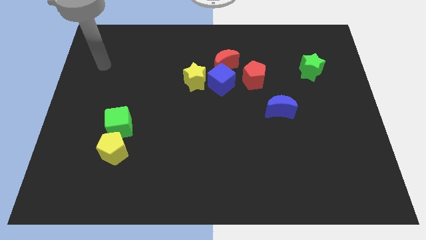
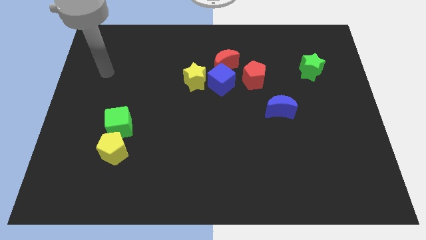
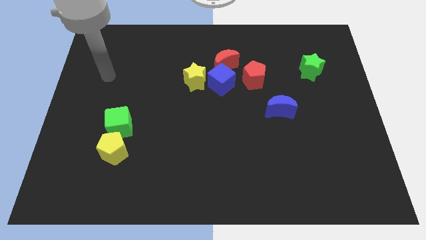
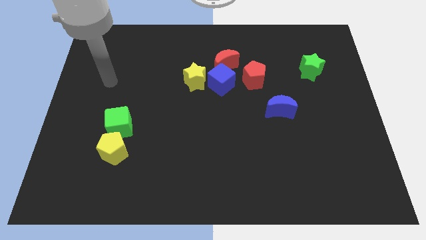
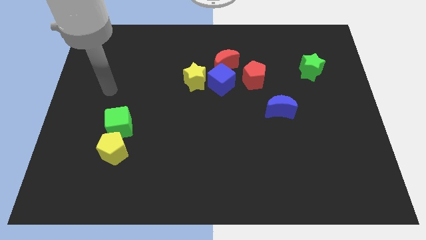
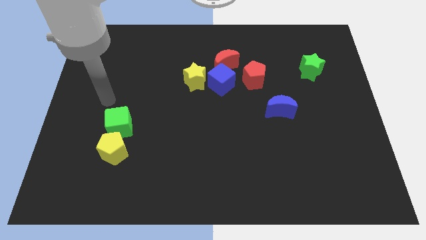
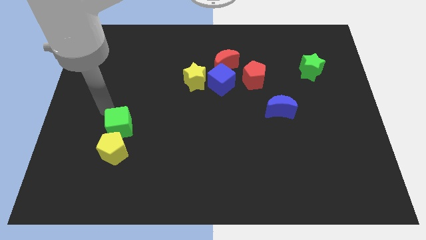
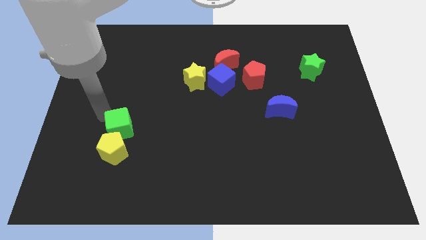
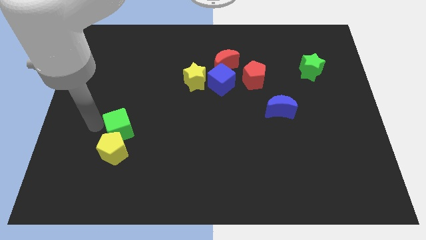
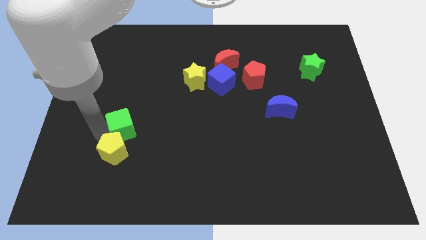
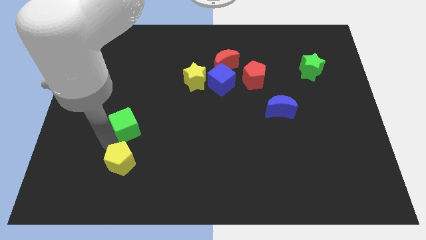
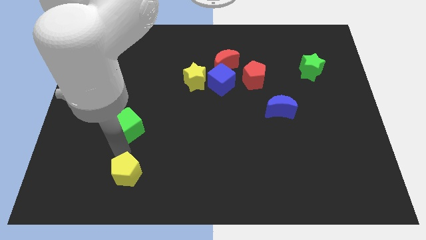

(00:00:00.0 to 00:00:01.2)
pull the green cube apart from the yellow pentagon

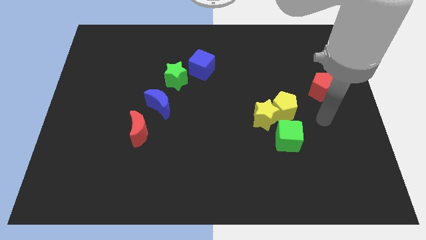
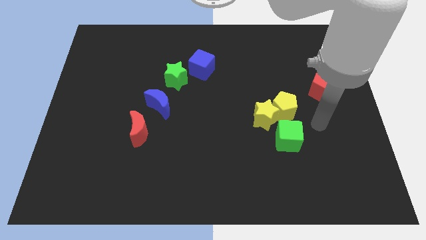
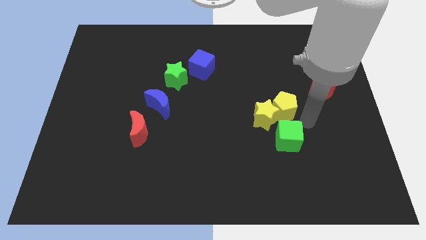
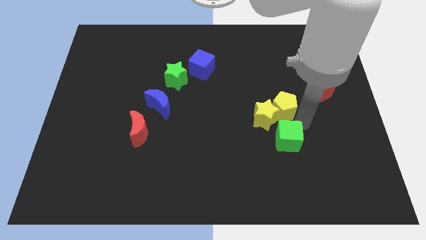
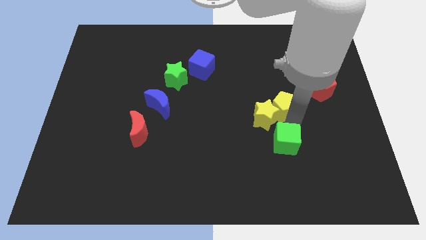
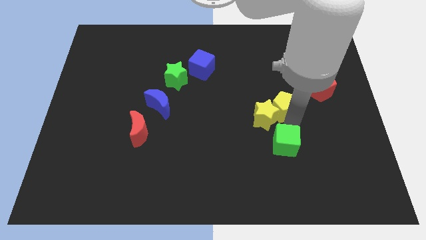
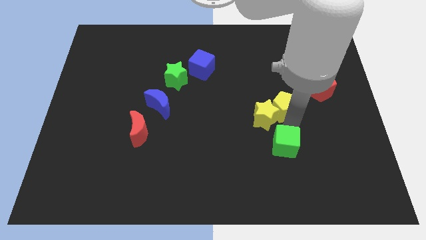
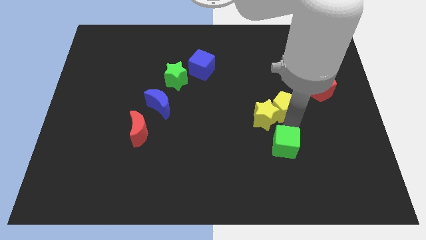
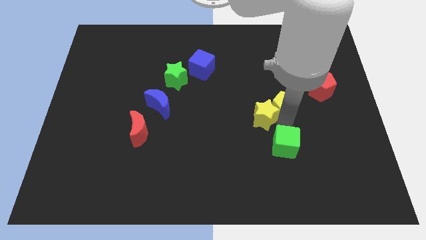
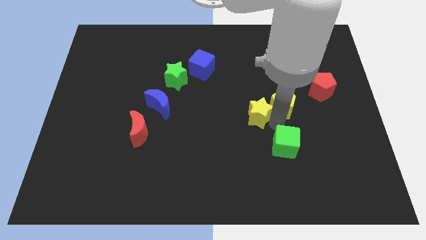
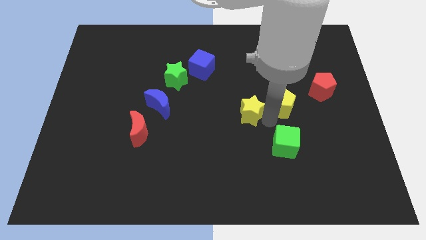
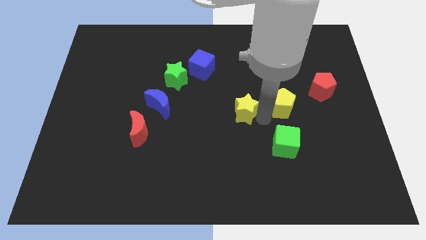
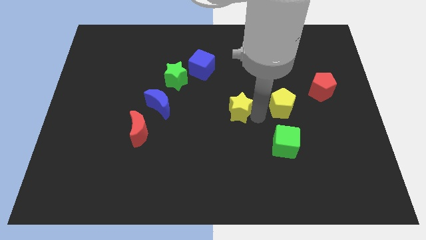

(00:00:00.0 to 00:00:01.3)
pull the yellow star apart from the yellow pentagon and green cube

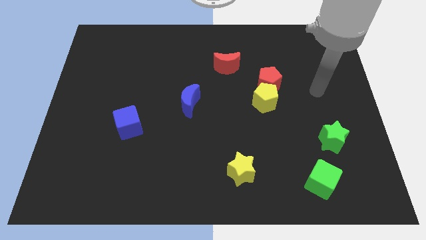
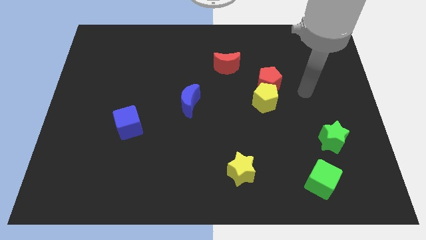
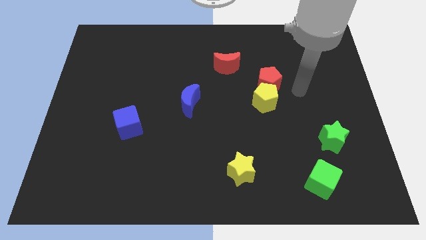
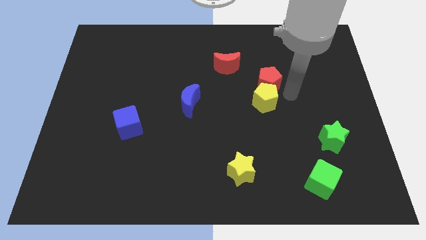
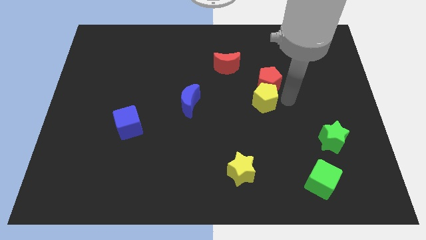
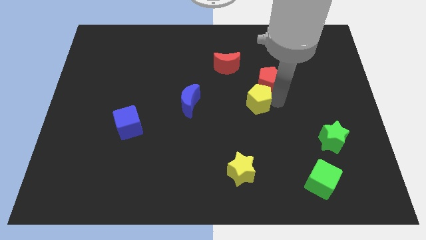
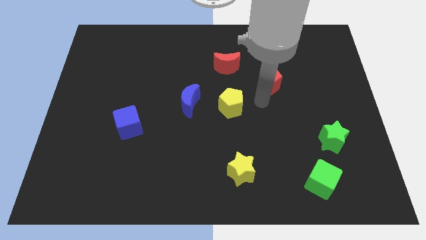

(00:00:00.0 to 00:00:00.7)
separate the red pentagon from the yellow pentagon

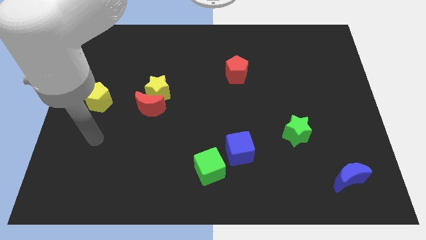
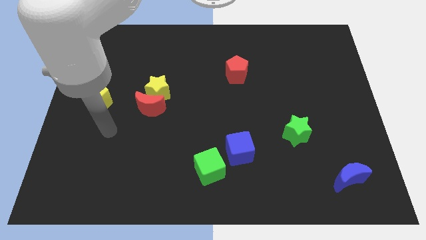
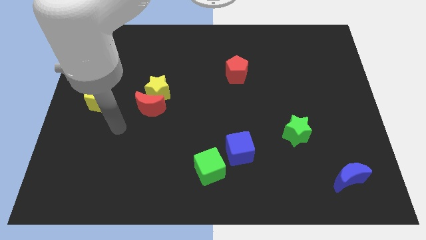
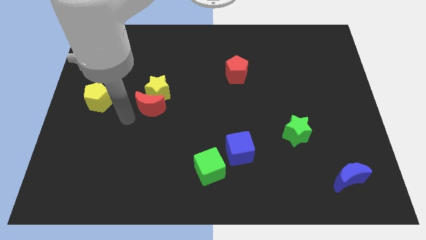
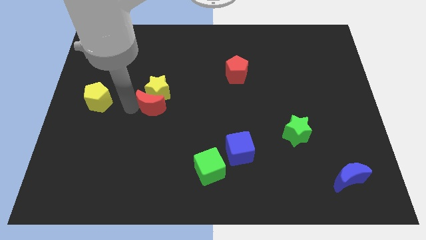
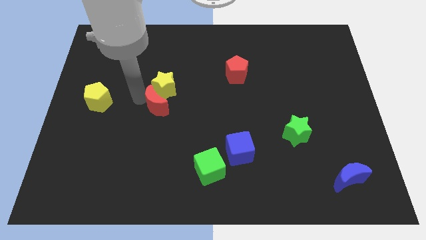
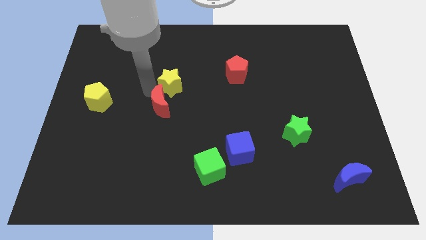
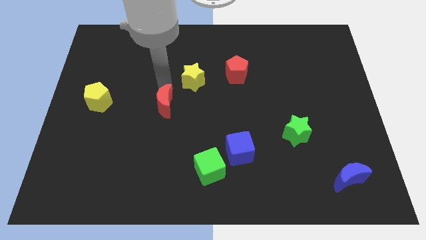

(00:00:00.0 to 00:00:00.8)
move the red moon away from the yellow star

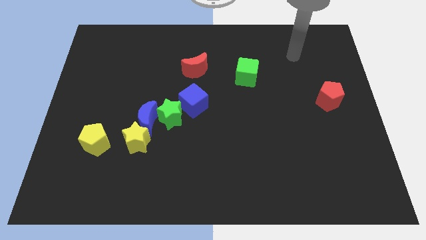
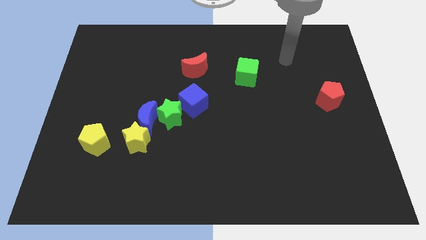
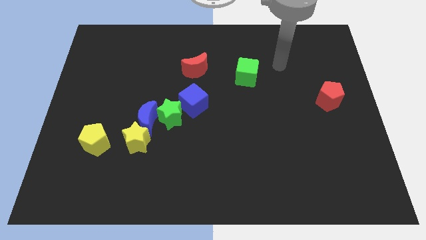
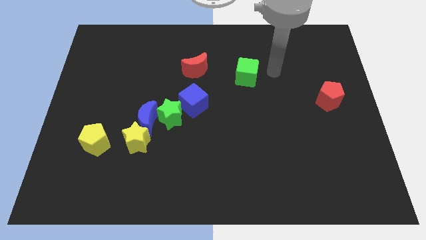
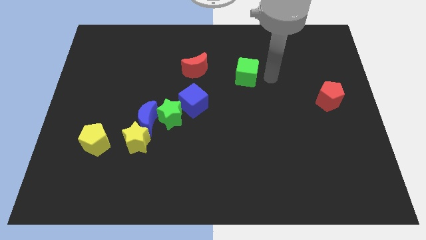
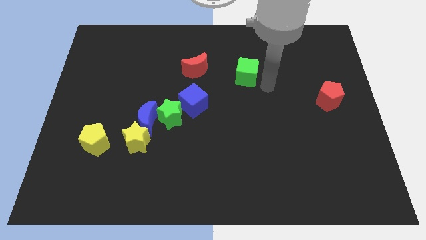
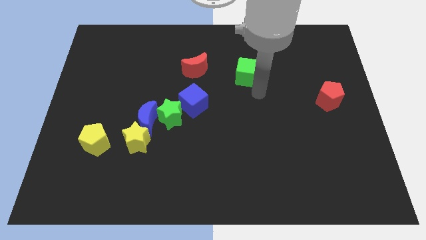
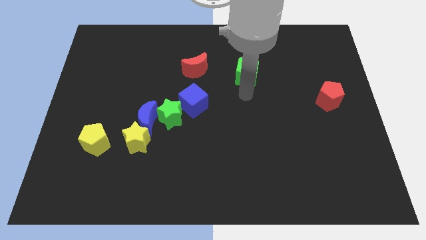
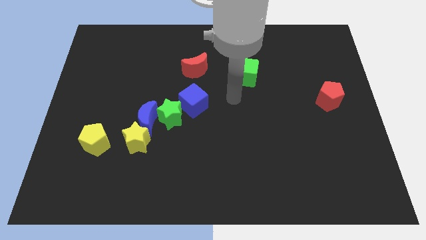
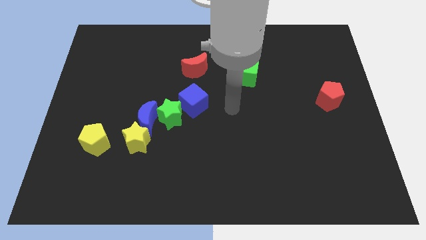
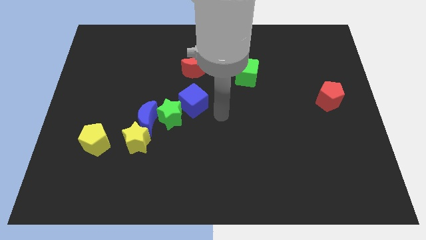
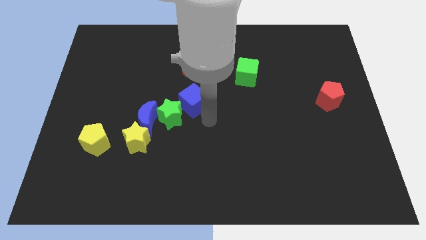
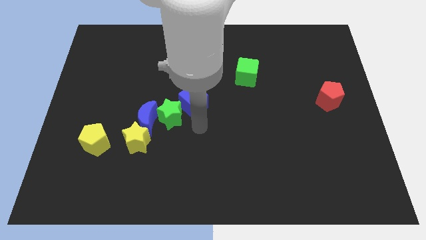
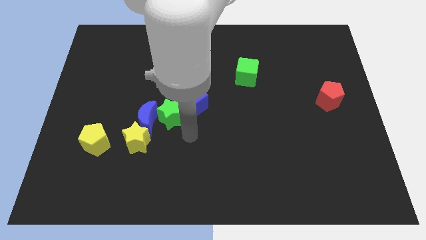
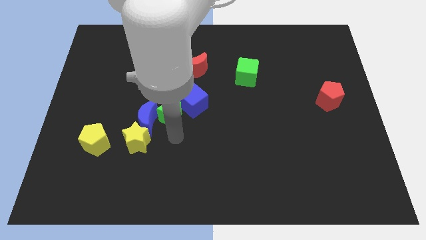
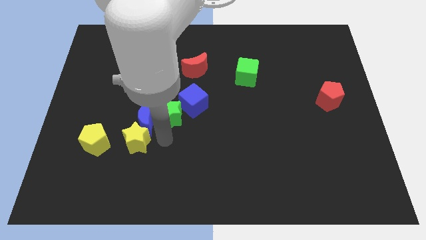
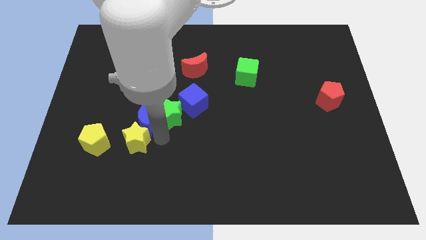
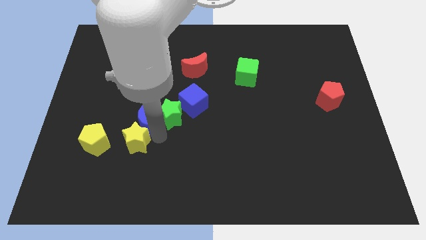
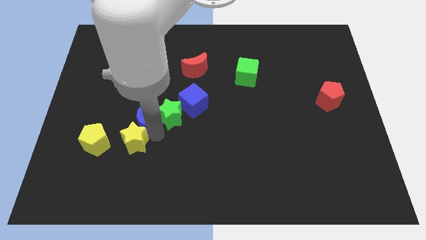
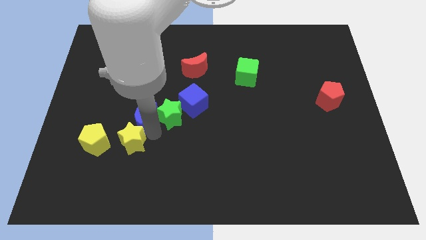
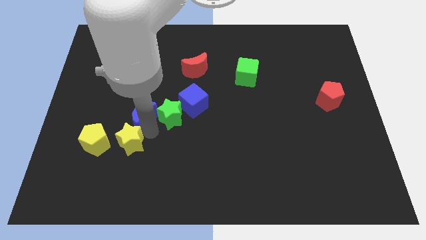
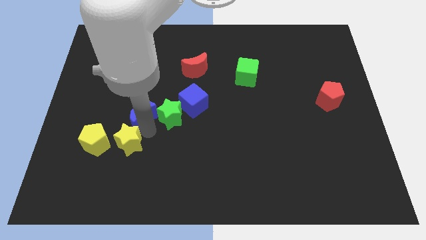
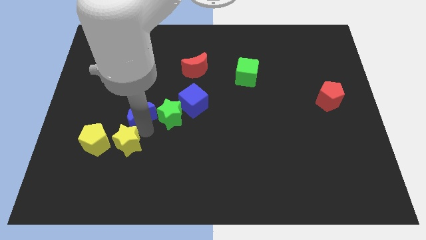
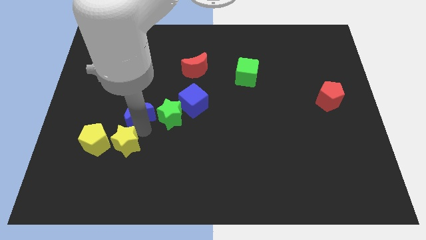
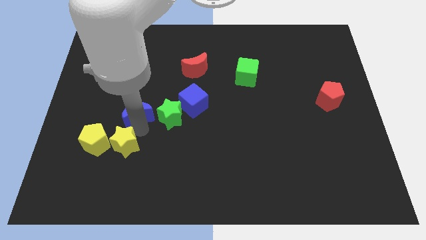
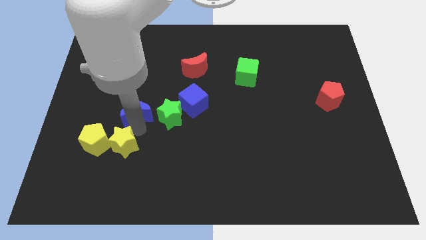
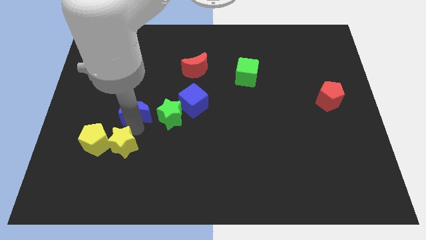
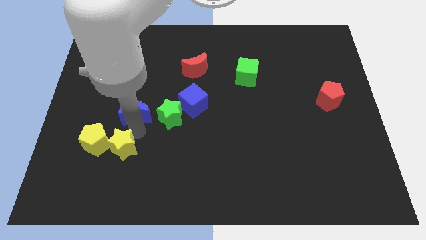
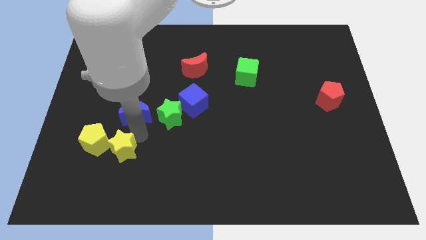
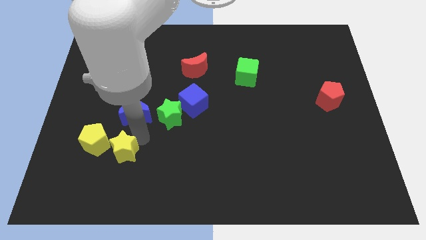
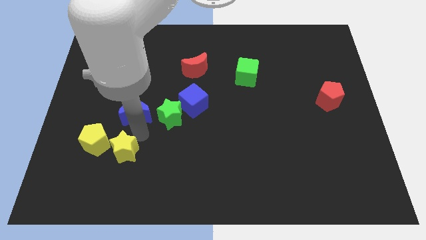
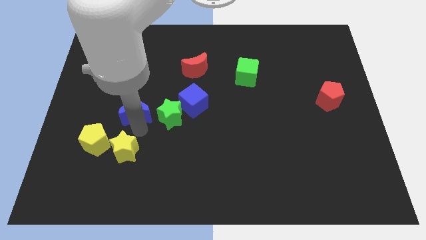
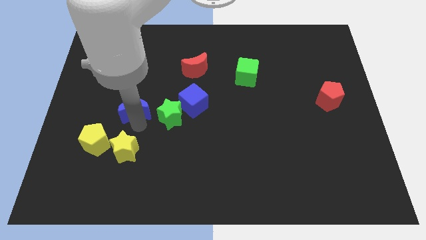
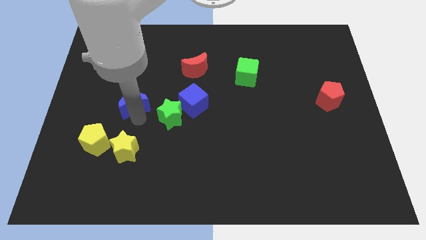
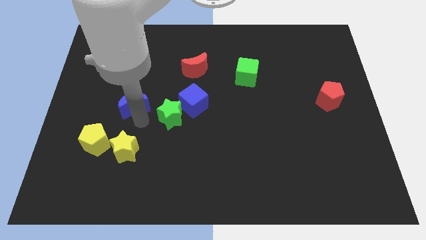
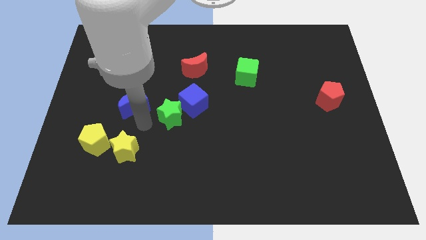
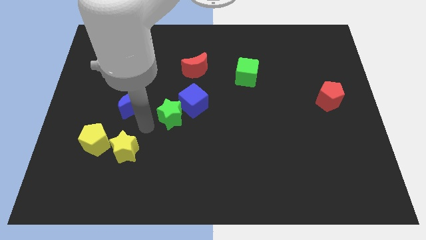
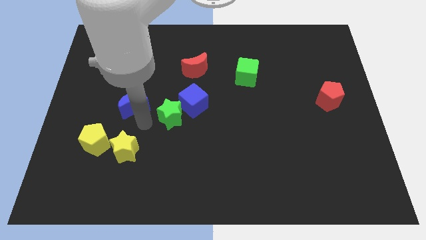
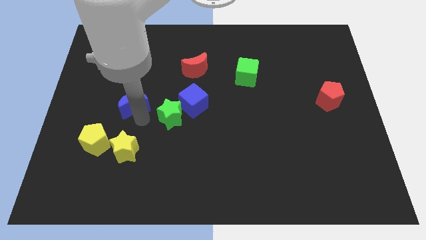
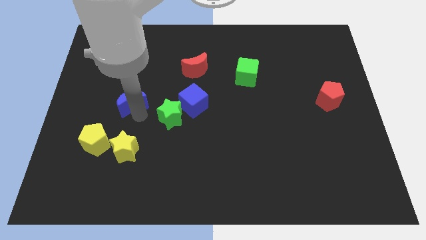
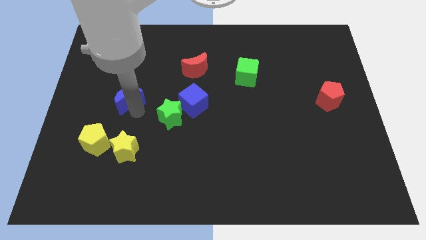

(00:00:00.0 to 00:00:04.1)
pull the blue moon apart from the green star and yellow star

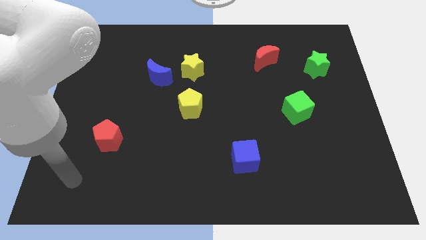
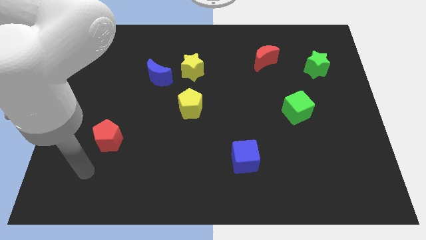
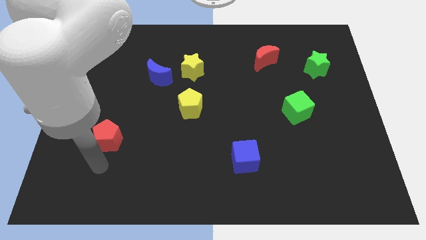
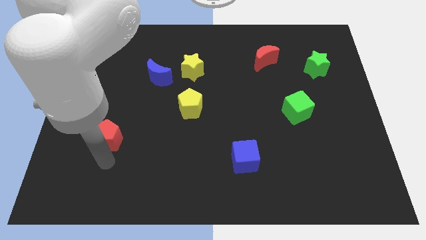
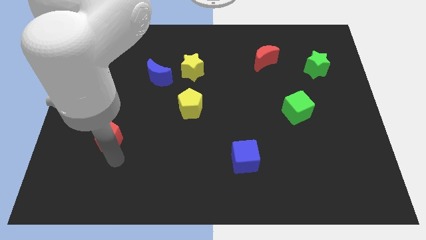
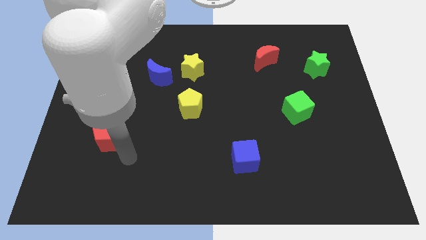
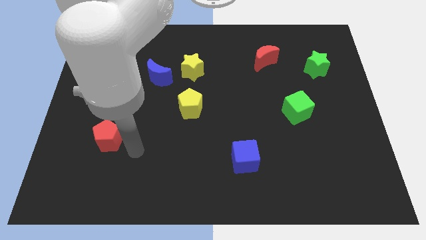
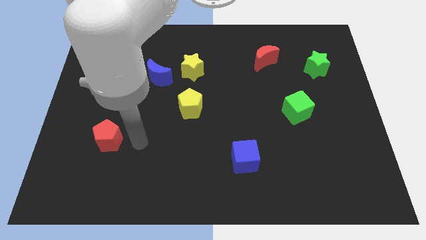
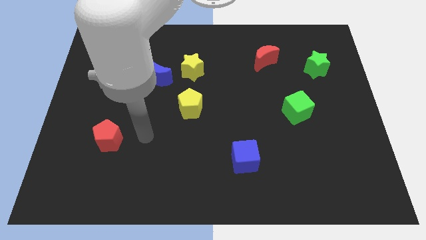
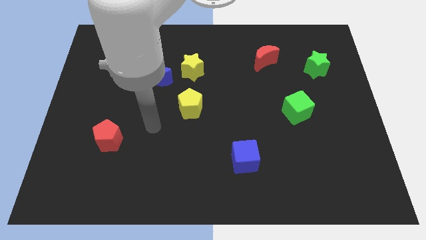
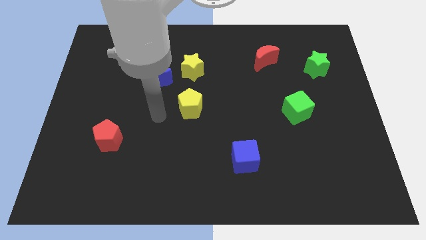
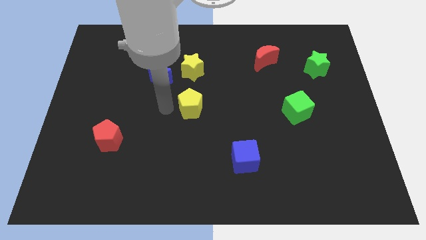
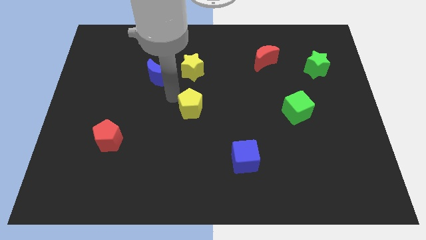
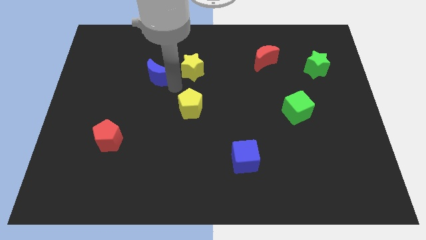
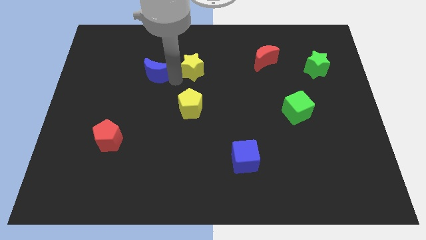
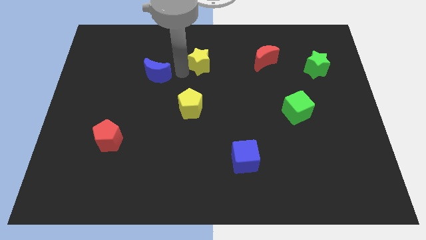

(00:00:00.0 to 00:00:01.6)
move the blue moon away from the yellow star
